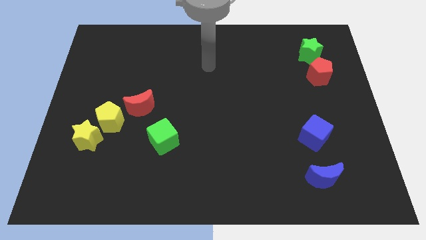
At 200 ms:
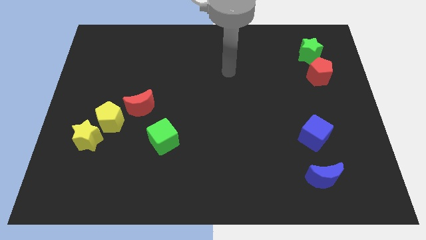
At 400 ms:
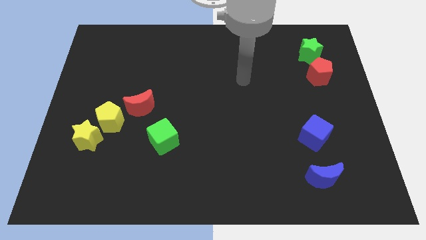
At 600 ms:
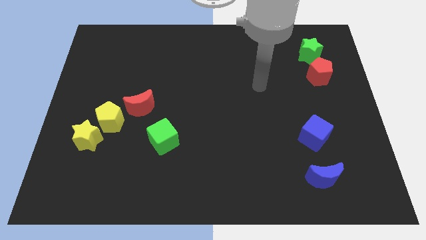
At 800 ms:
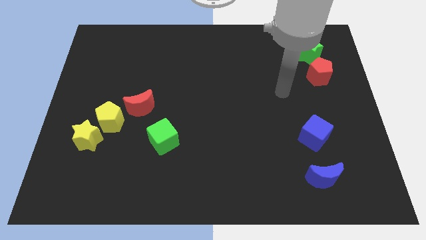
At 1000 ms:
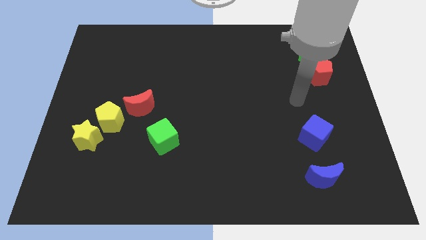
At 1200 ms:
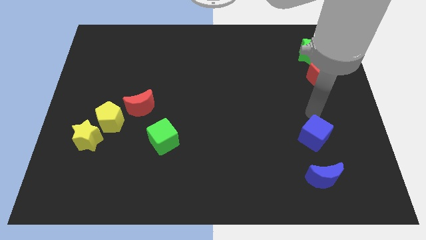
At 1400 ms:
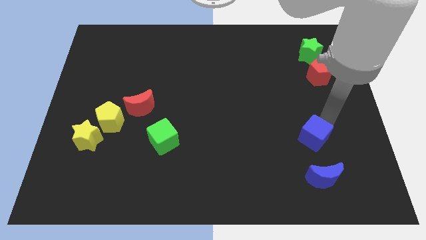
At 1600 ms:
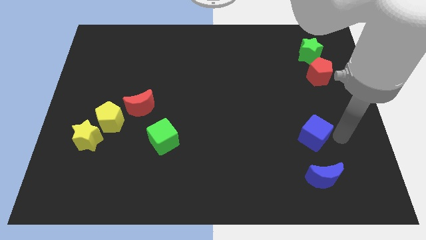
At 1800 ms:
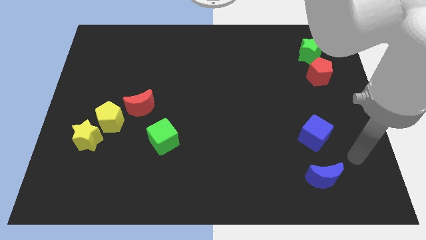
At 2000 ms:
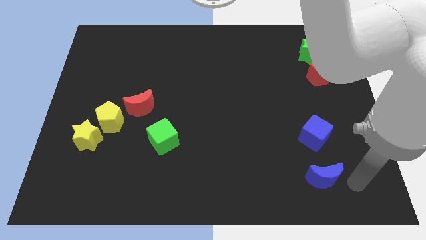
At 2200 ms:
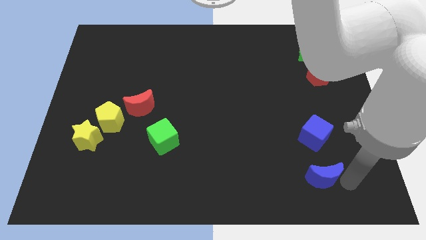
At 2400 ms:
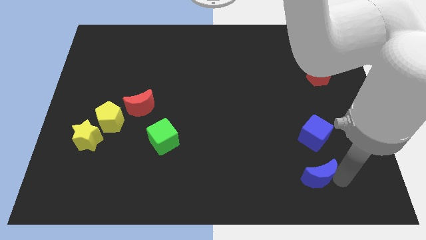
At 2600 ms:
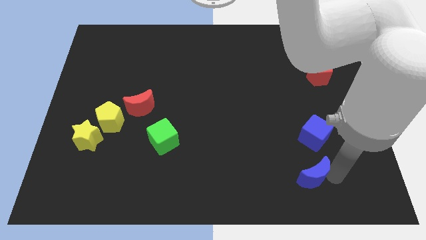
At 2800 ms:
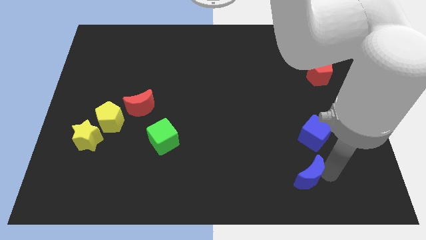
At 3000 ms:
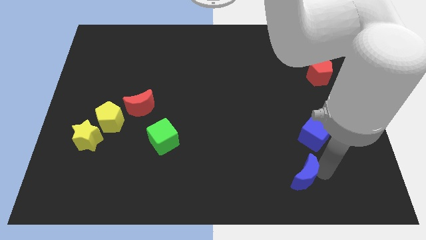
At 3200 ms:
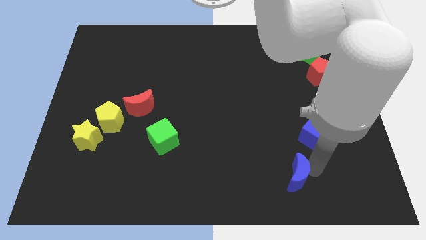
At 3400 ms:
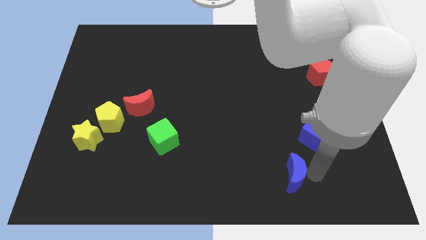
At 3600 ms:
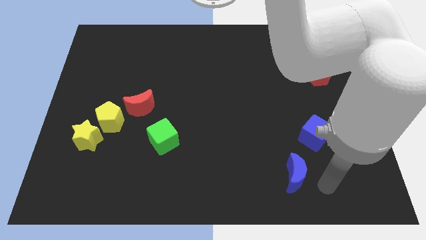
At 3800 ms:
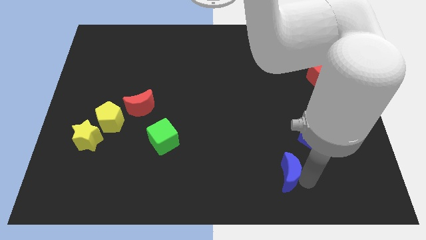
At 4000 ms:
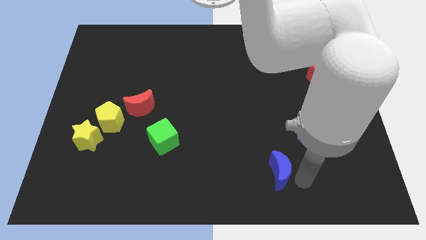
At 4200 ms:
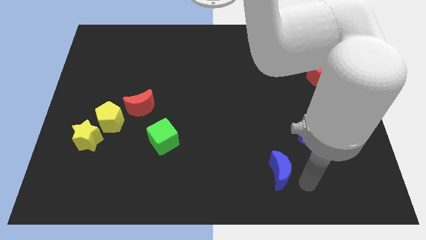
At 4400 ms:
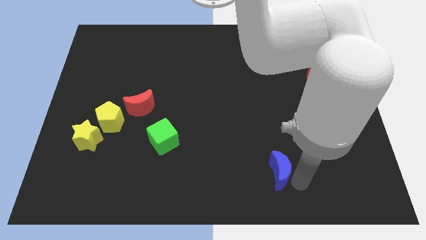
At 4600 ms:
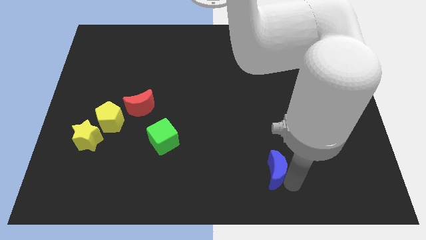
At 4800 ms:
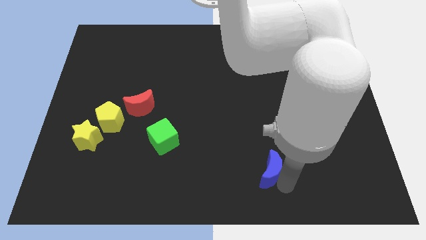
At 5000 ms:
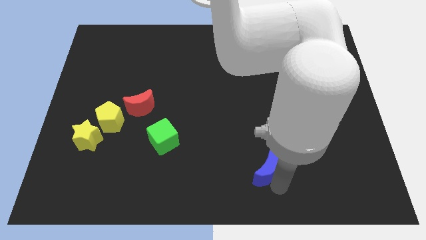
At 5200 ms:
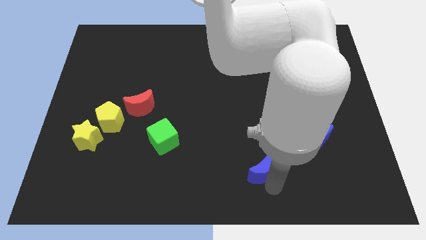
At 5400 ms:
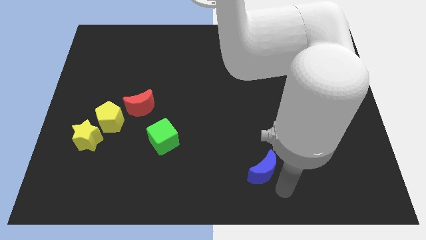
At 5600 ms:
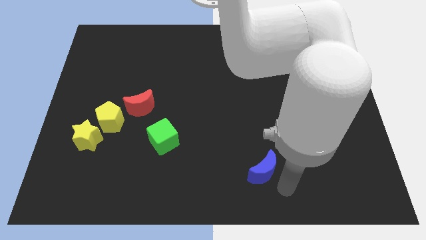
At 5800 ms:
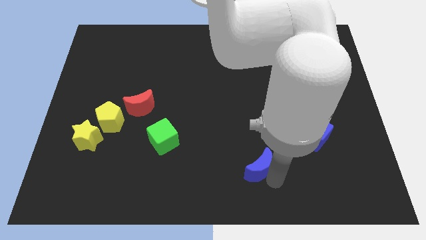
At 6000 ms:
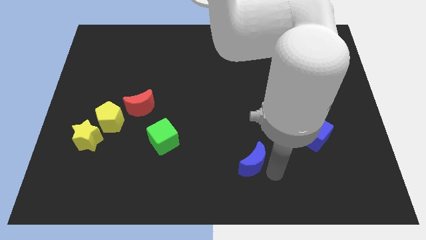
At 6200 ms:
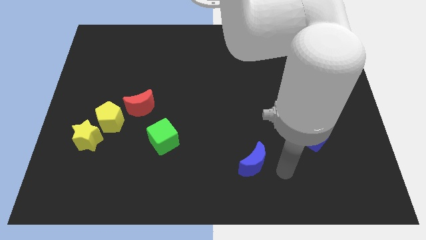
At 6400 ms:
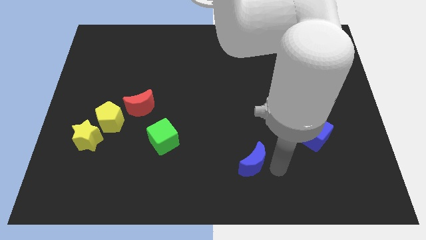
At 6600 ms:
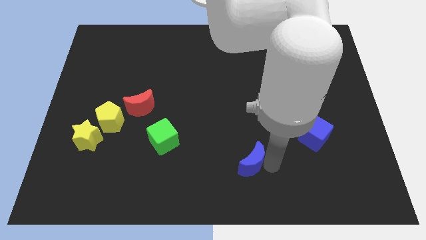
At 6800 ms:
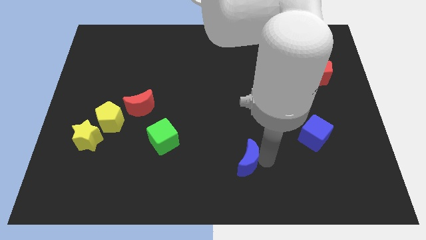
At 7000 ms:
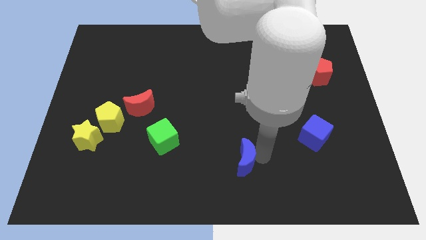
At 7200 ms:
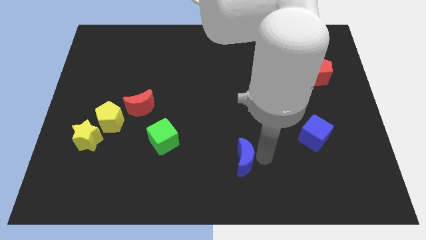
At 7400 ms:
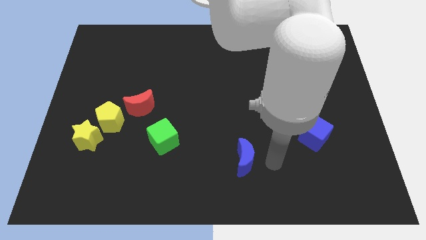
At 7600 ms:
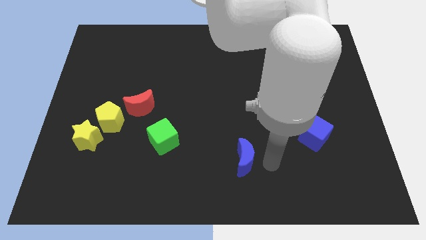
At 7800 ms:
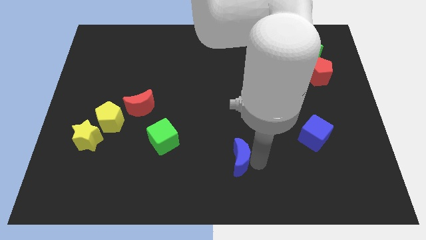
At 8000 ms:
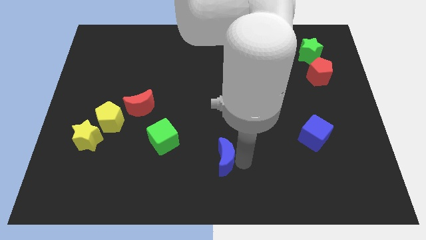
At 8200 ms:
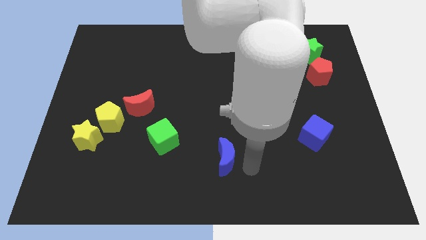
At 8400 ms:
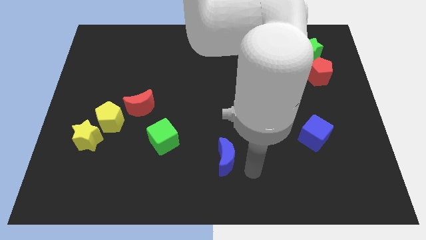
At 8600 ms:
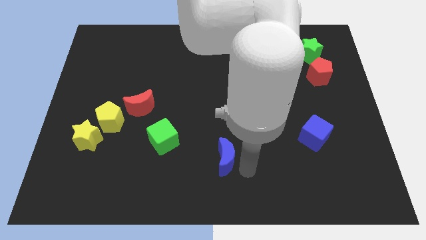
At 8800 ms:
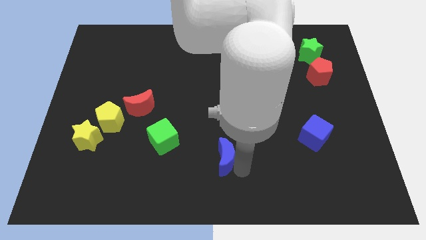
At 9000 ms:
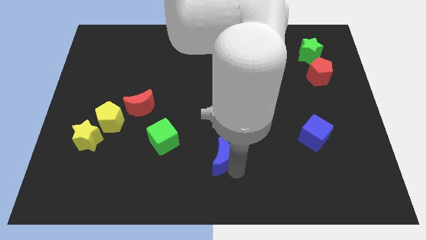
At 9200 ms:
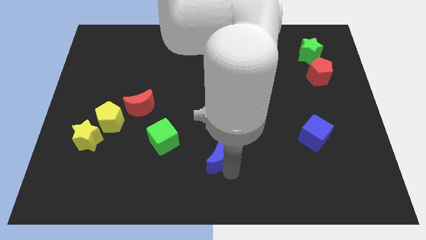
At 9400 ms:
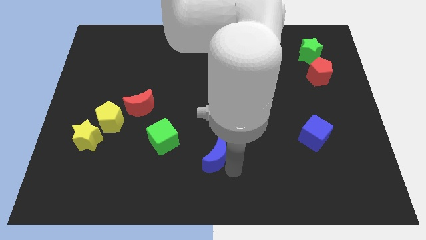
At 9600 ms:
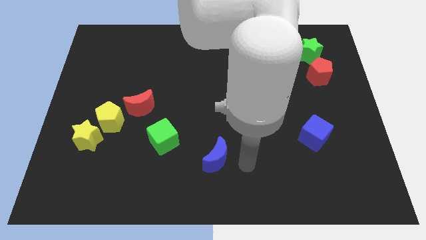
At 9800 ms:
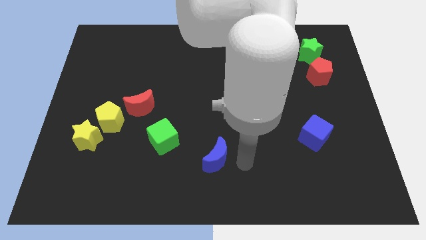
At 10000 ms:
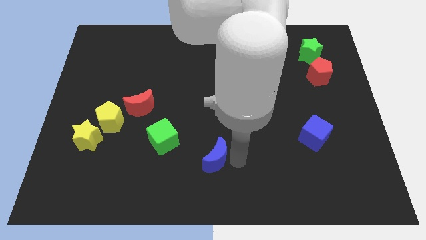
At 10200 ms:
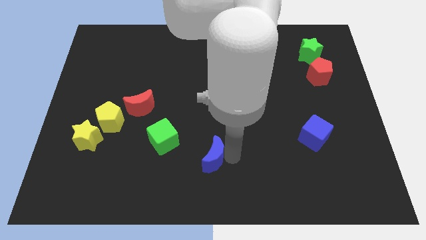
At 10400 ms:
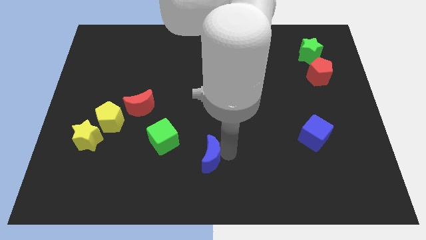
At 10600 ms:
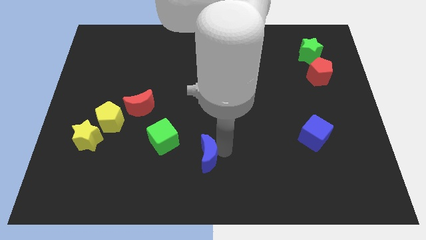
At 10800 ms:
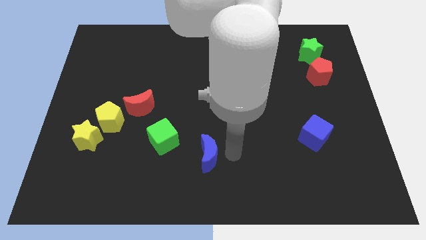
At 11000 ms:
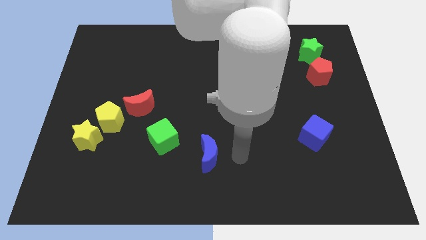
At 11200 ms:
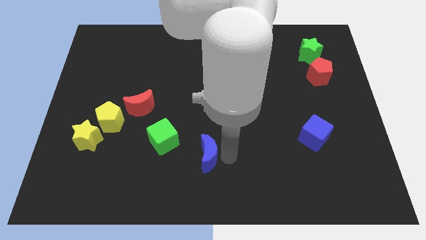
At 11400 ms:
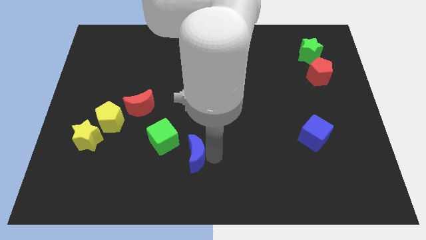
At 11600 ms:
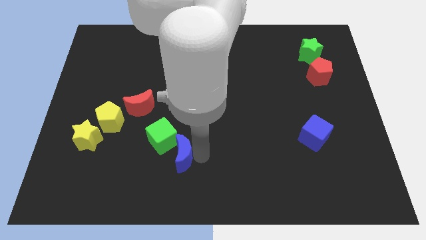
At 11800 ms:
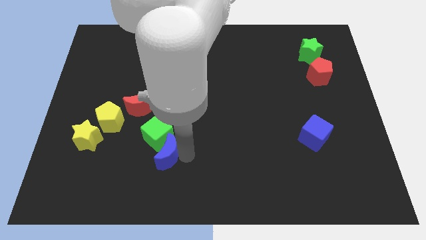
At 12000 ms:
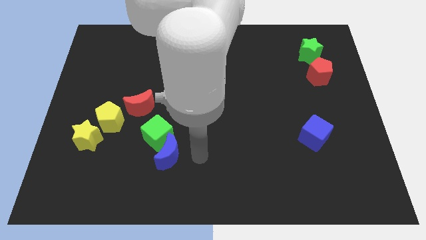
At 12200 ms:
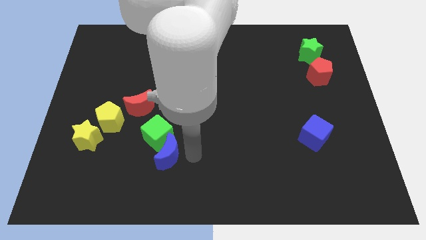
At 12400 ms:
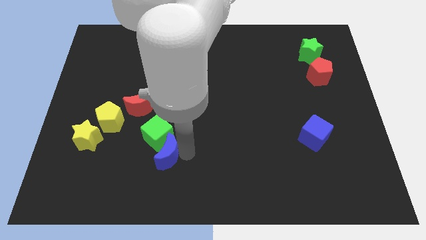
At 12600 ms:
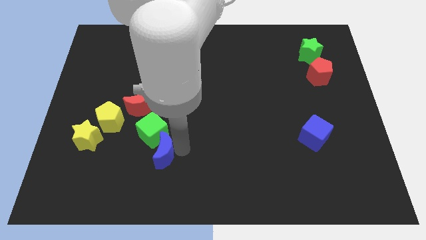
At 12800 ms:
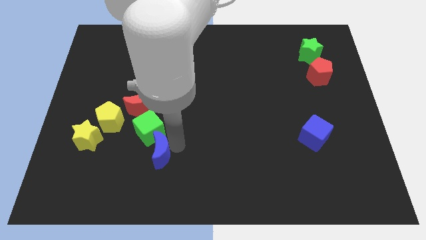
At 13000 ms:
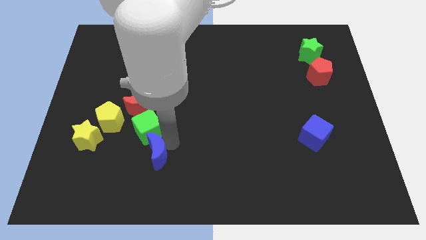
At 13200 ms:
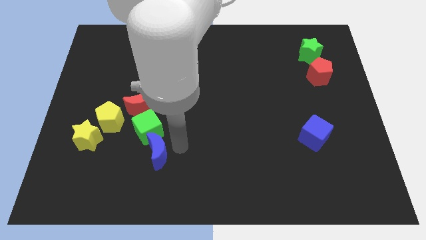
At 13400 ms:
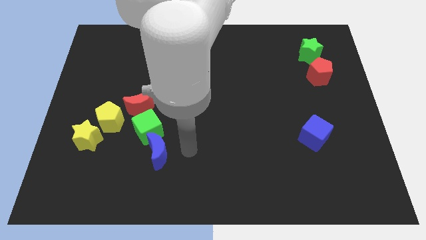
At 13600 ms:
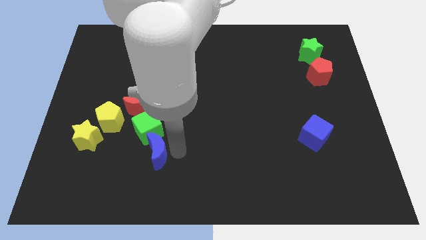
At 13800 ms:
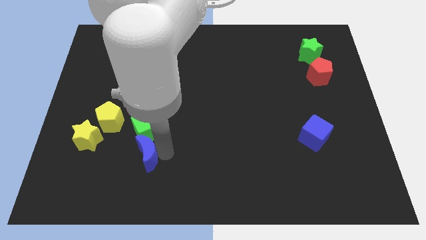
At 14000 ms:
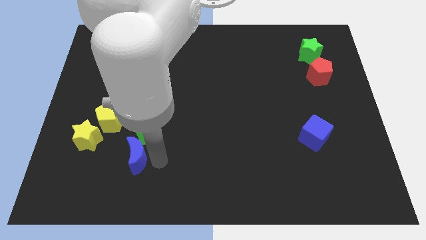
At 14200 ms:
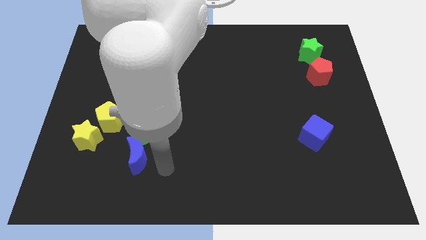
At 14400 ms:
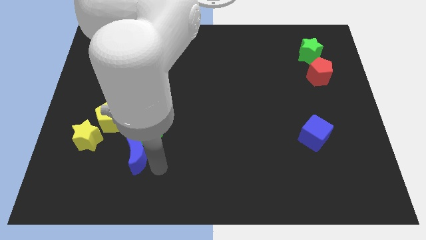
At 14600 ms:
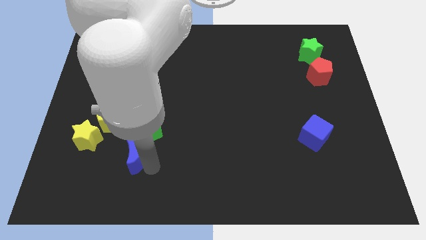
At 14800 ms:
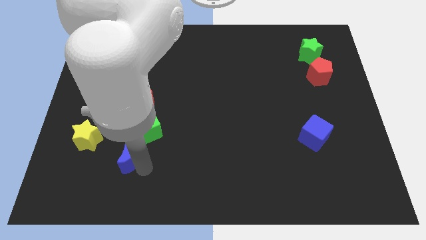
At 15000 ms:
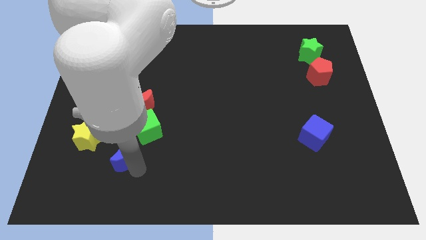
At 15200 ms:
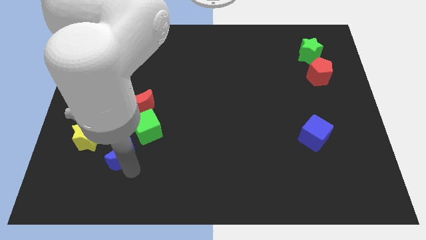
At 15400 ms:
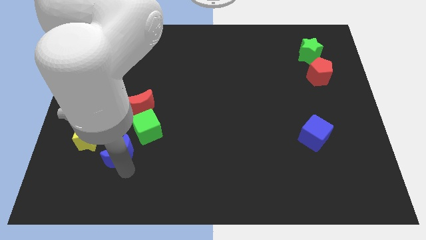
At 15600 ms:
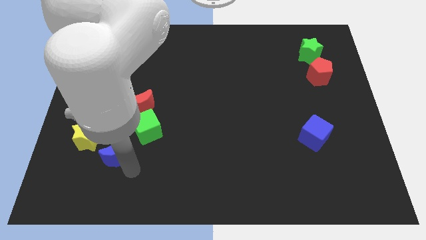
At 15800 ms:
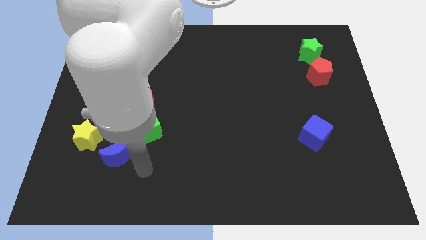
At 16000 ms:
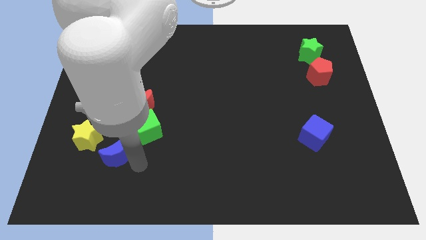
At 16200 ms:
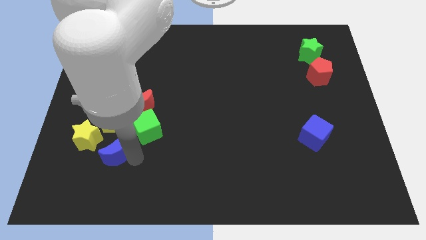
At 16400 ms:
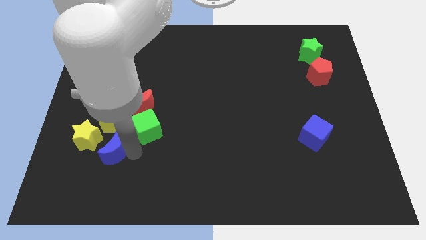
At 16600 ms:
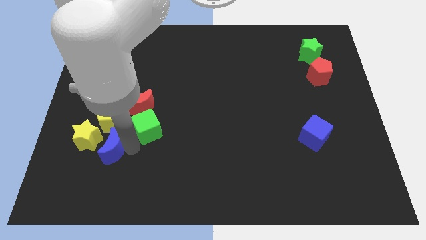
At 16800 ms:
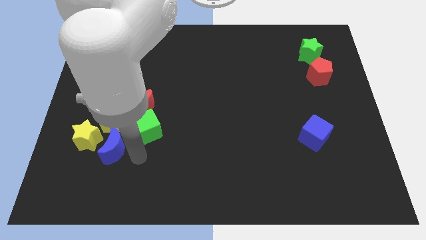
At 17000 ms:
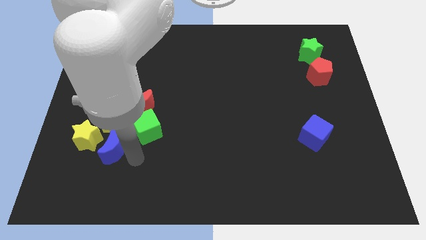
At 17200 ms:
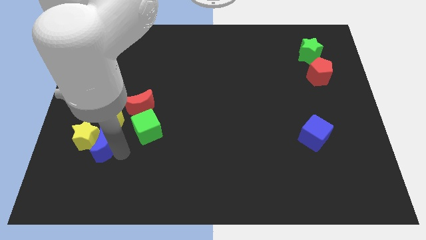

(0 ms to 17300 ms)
slide the blue moon close to the yellow star
